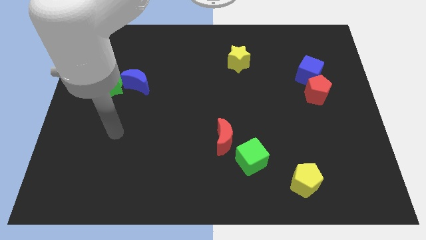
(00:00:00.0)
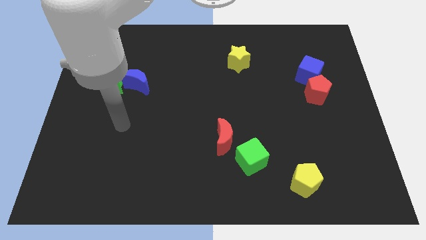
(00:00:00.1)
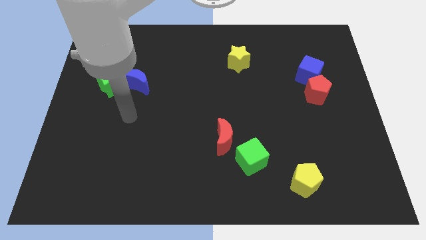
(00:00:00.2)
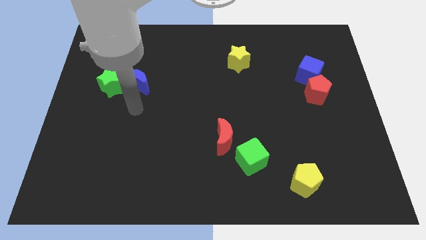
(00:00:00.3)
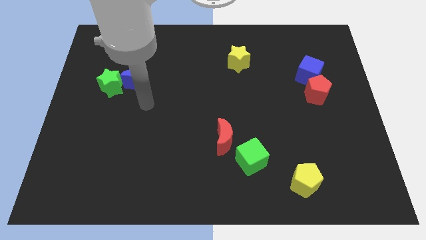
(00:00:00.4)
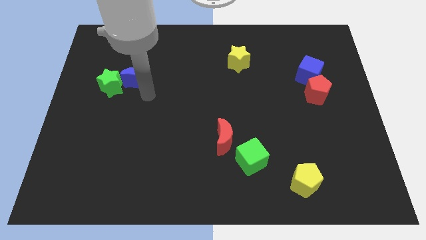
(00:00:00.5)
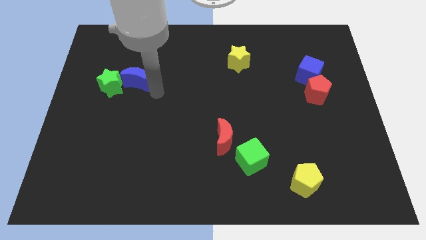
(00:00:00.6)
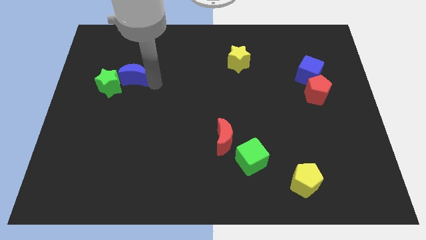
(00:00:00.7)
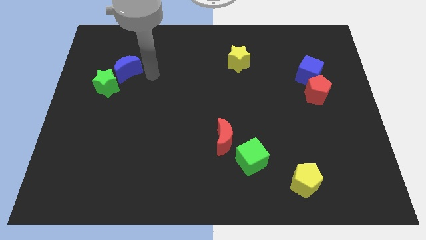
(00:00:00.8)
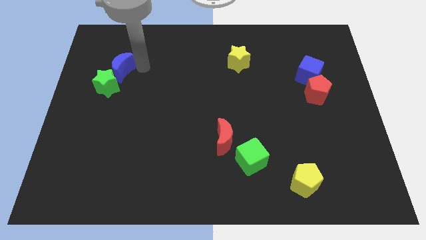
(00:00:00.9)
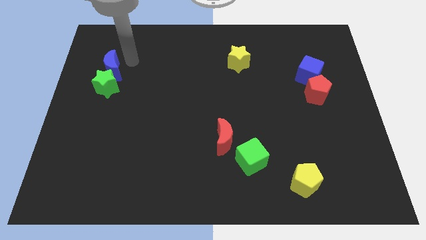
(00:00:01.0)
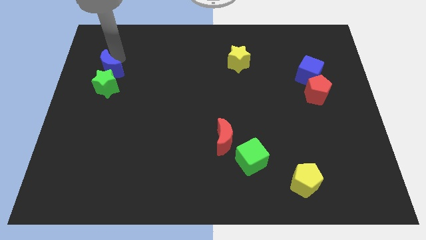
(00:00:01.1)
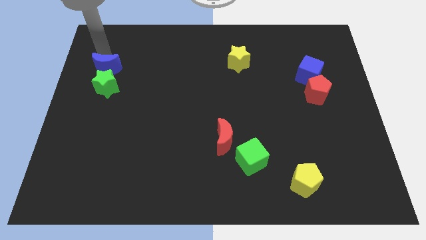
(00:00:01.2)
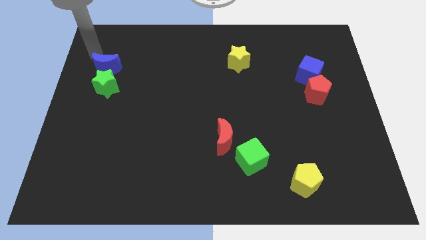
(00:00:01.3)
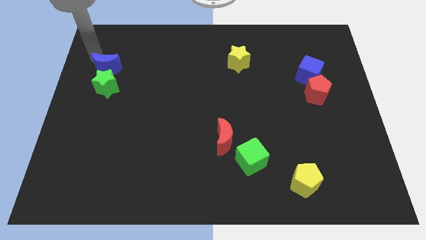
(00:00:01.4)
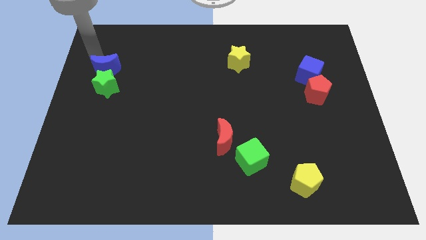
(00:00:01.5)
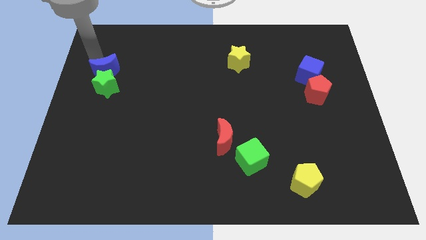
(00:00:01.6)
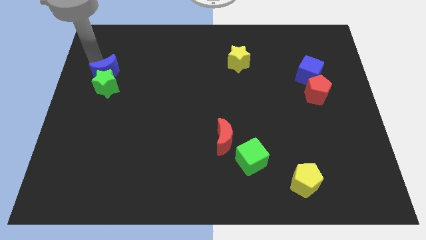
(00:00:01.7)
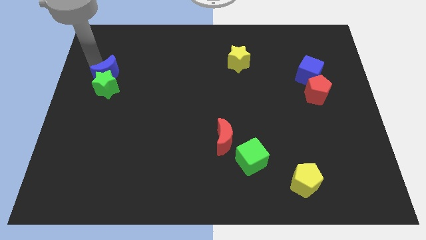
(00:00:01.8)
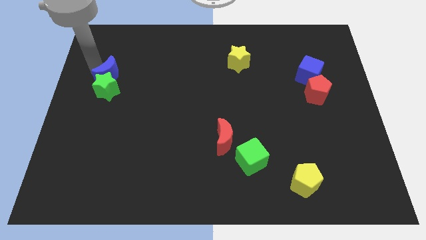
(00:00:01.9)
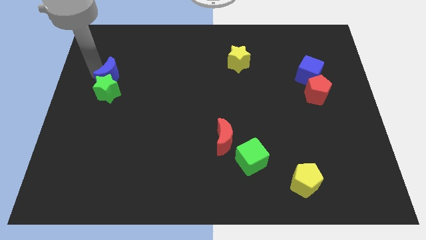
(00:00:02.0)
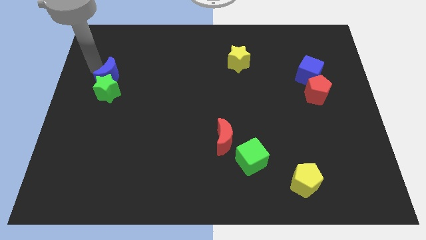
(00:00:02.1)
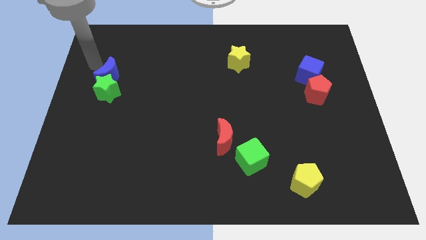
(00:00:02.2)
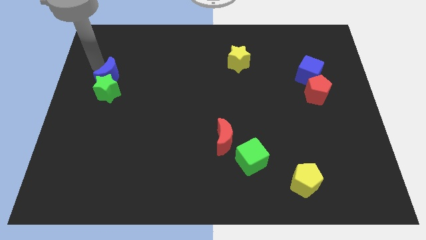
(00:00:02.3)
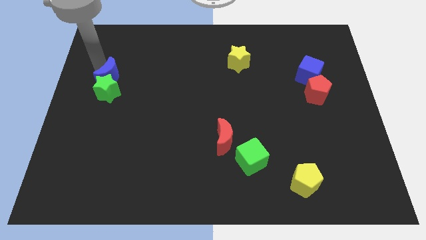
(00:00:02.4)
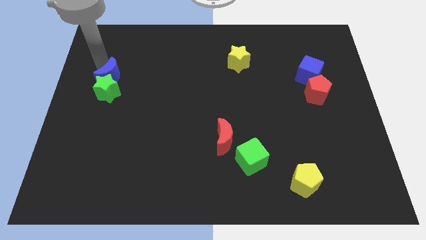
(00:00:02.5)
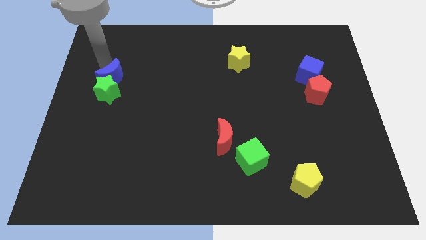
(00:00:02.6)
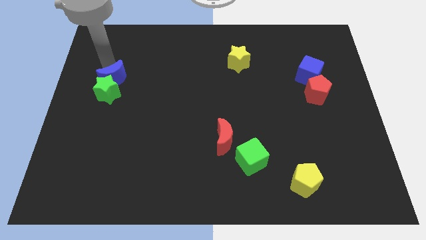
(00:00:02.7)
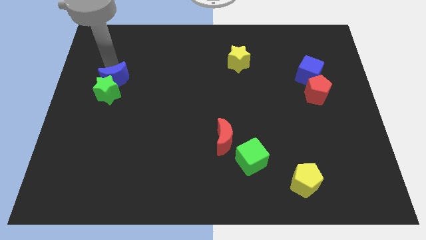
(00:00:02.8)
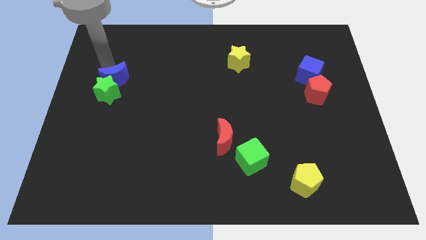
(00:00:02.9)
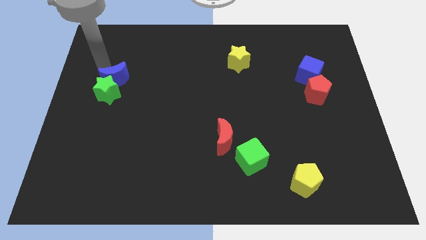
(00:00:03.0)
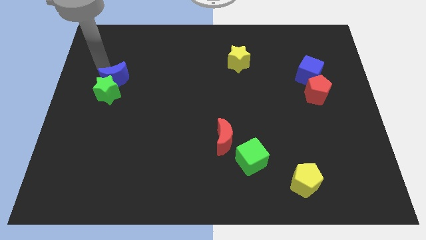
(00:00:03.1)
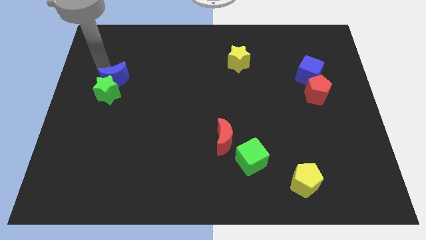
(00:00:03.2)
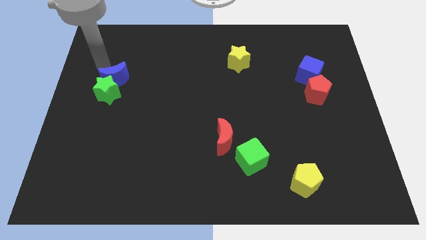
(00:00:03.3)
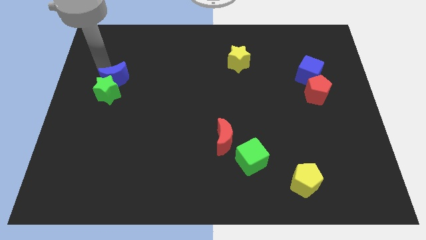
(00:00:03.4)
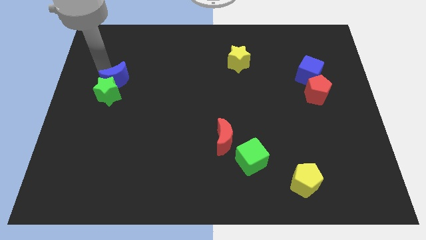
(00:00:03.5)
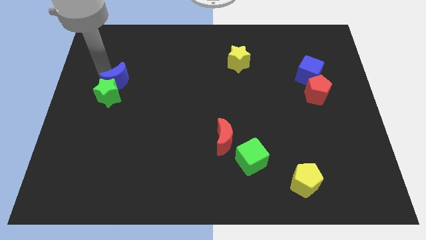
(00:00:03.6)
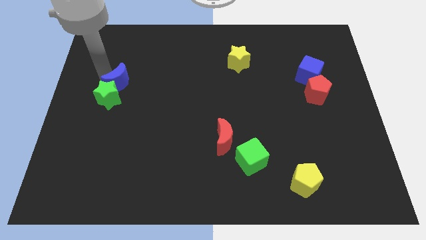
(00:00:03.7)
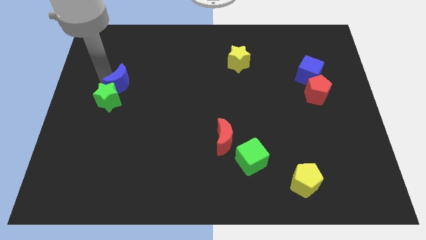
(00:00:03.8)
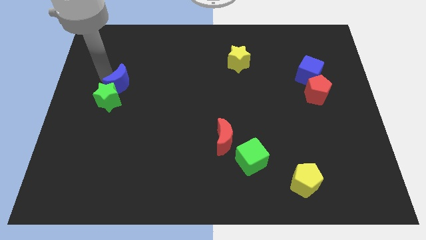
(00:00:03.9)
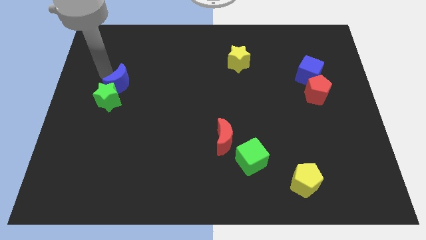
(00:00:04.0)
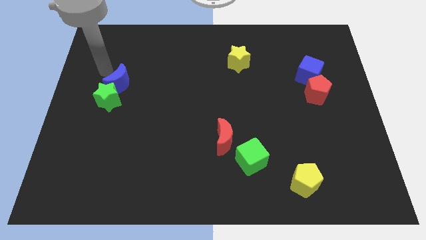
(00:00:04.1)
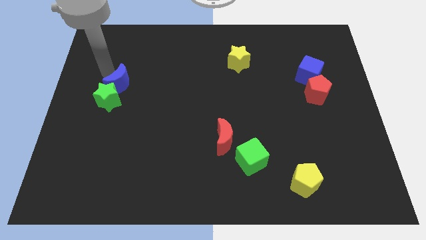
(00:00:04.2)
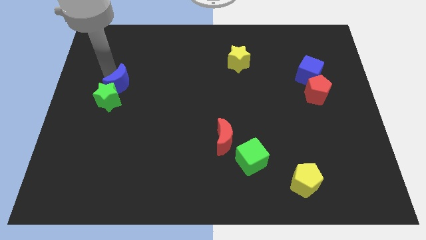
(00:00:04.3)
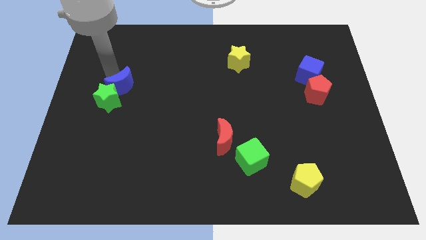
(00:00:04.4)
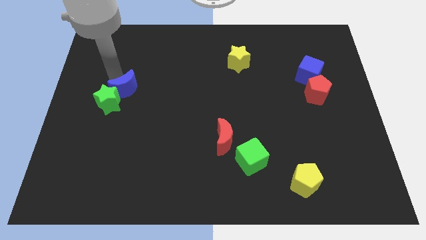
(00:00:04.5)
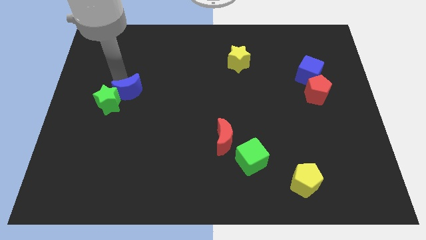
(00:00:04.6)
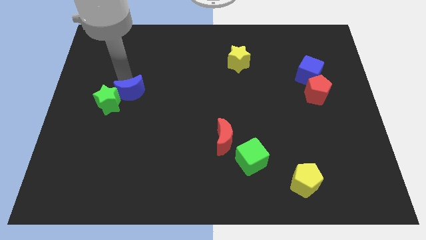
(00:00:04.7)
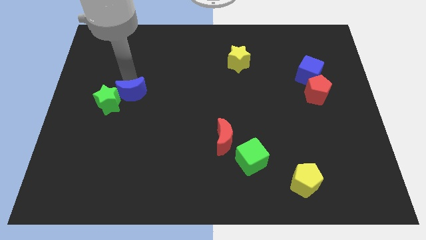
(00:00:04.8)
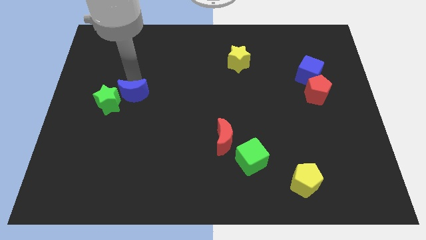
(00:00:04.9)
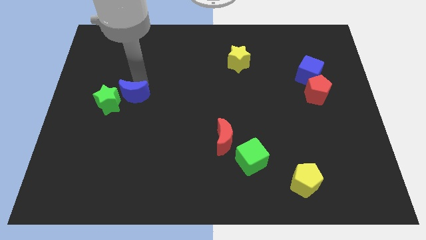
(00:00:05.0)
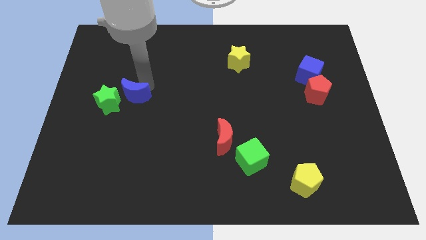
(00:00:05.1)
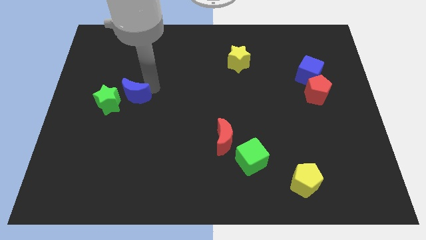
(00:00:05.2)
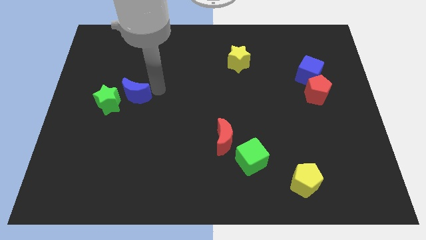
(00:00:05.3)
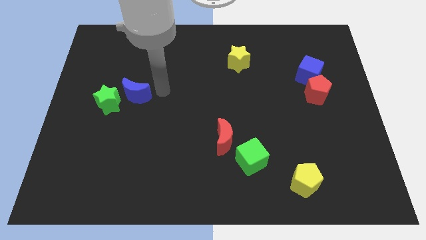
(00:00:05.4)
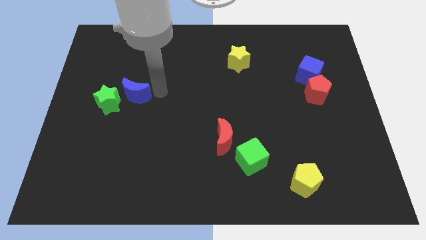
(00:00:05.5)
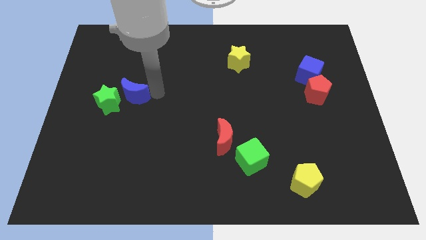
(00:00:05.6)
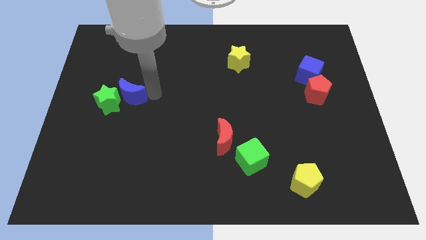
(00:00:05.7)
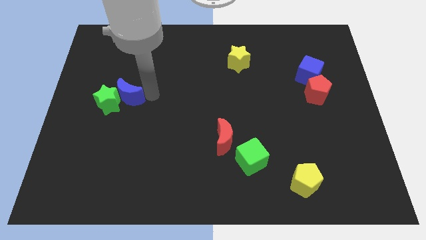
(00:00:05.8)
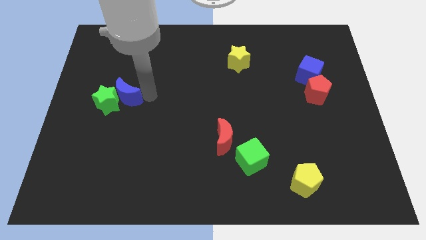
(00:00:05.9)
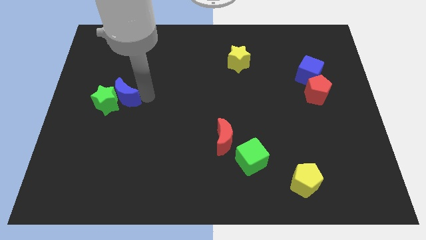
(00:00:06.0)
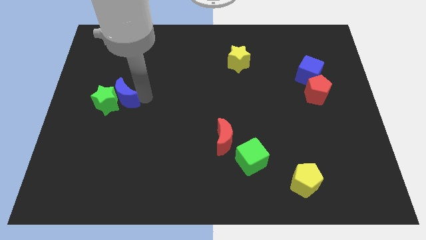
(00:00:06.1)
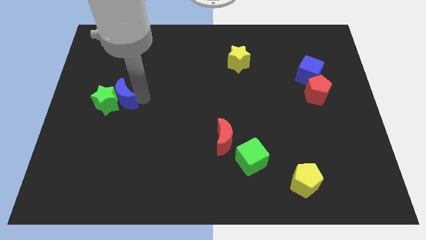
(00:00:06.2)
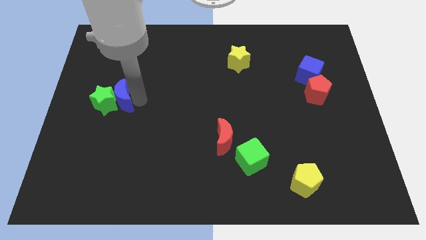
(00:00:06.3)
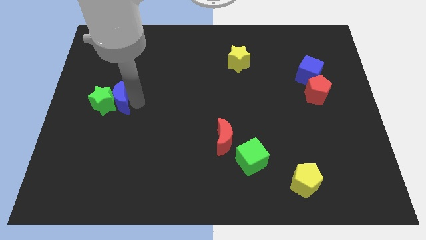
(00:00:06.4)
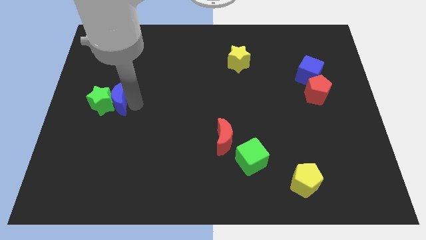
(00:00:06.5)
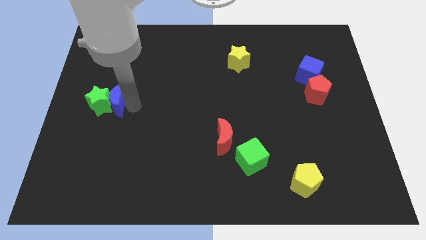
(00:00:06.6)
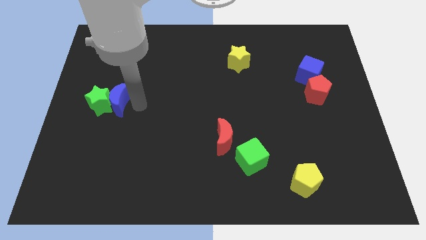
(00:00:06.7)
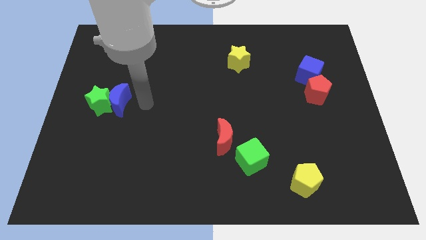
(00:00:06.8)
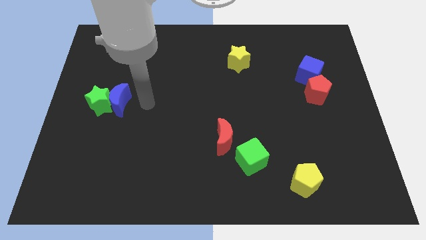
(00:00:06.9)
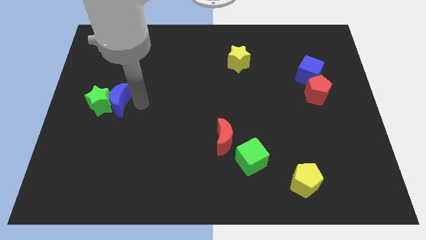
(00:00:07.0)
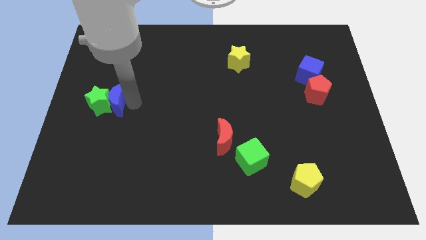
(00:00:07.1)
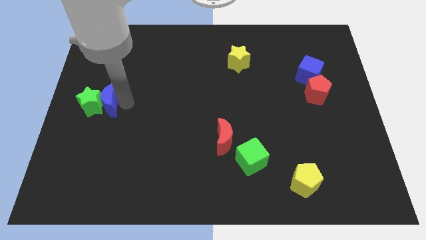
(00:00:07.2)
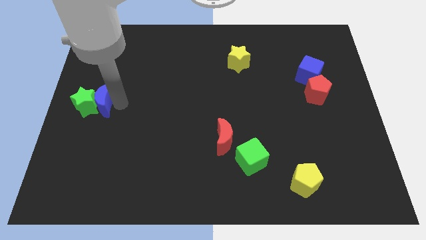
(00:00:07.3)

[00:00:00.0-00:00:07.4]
put the blue moon to the center left
